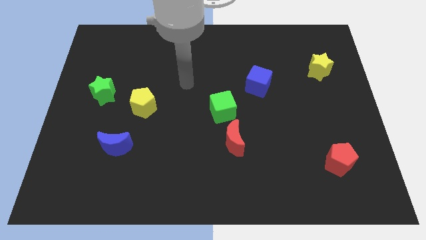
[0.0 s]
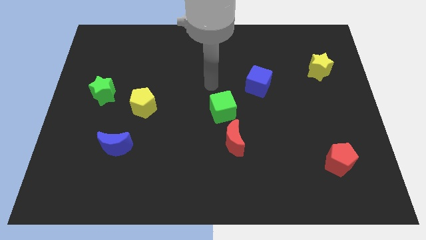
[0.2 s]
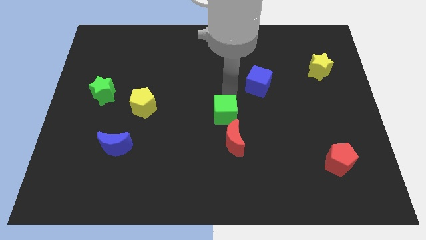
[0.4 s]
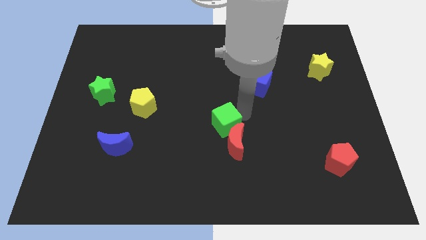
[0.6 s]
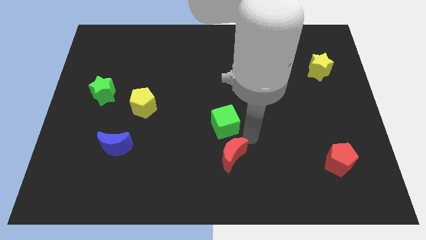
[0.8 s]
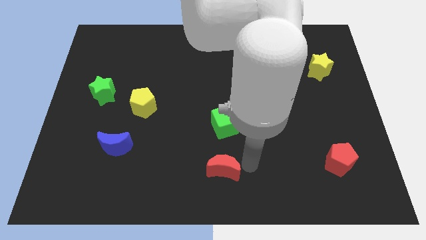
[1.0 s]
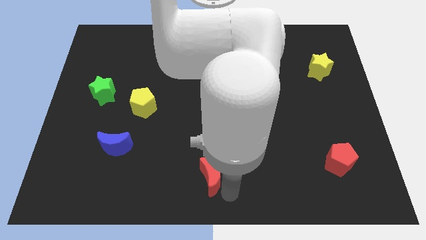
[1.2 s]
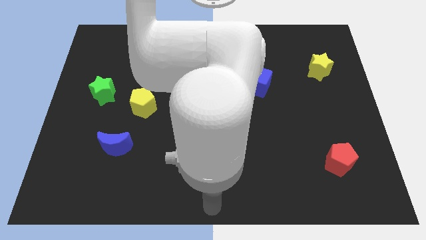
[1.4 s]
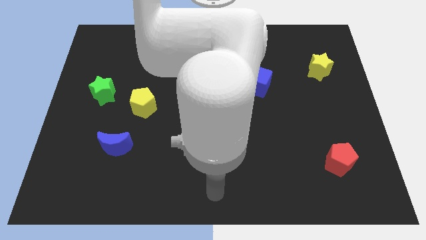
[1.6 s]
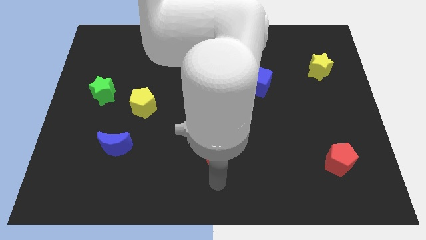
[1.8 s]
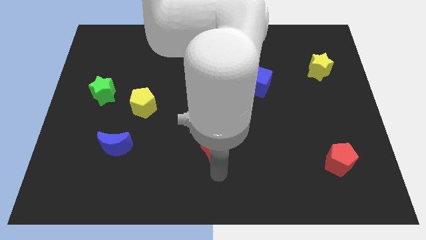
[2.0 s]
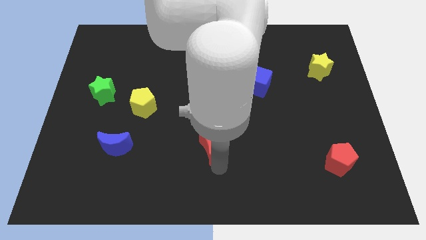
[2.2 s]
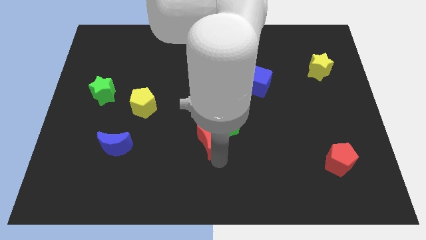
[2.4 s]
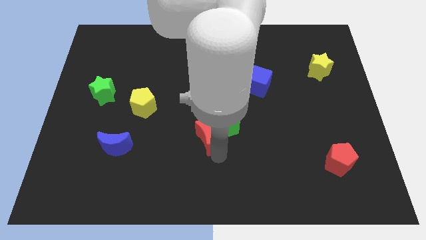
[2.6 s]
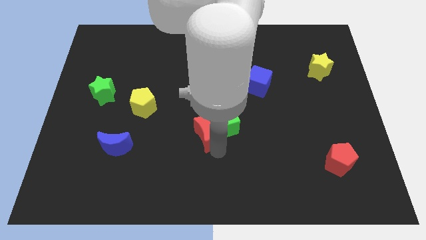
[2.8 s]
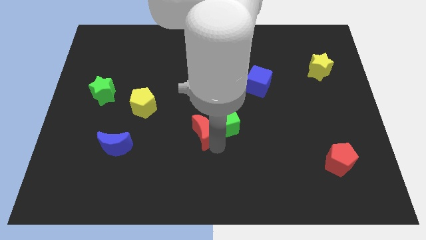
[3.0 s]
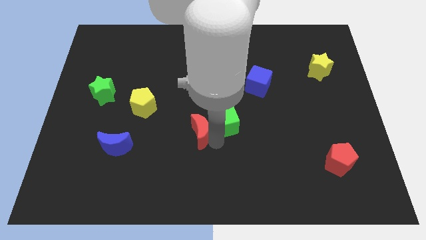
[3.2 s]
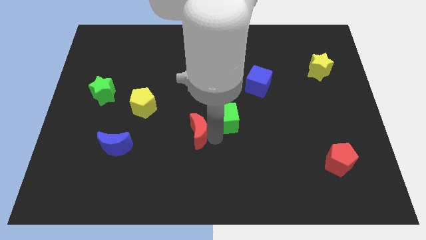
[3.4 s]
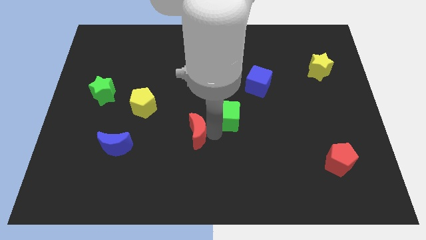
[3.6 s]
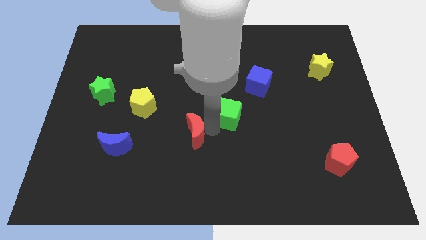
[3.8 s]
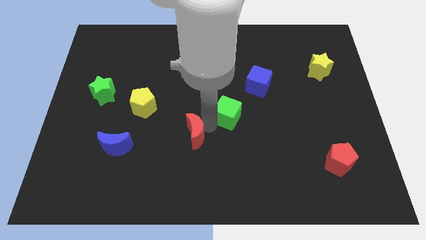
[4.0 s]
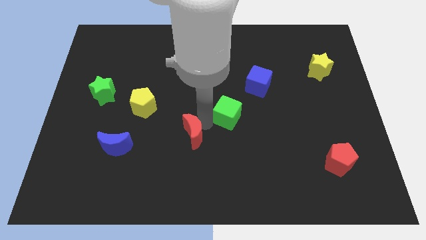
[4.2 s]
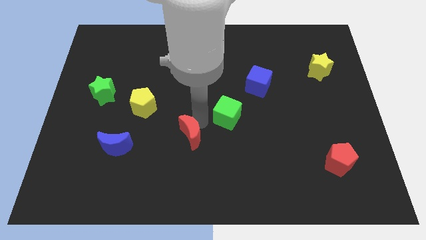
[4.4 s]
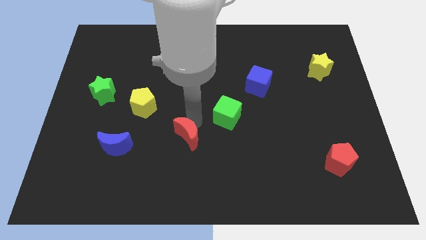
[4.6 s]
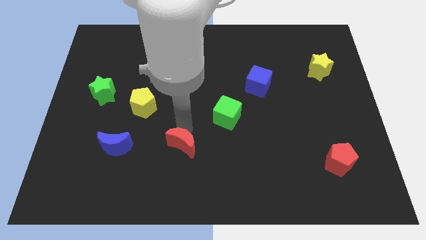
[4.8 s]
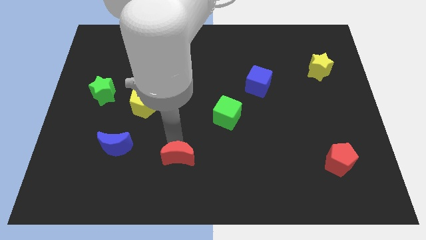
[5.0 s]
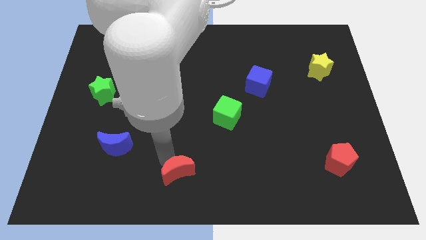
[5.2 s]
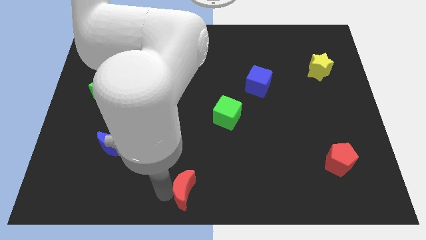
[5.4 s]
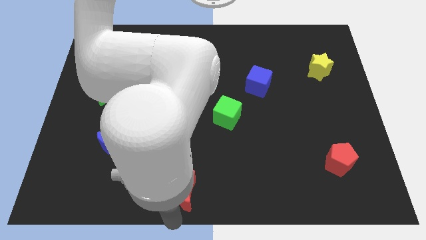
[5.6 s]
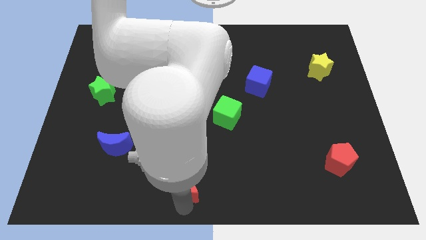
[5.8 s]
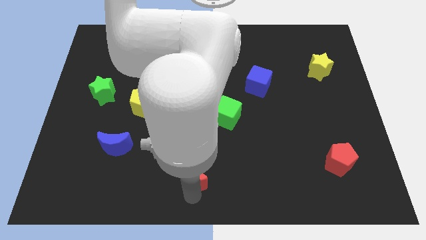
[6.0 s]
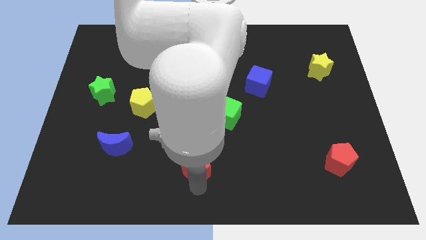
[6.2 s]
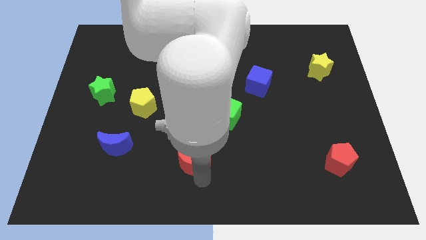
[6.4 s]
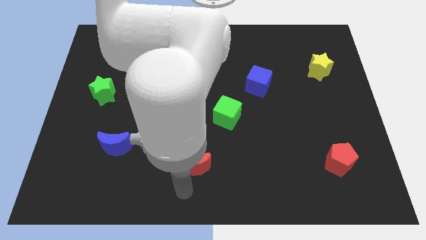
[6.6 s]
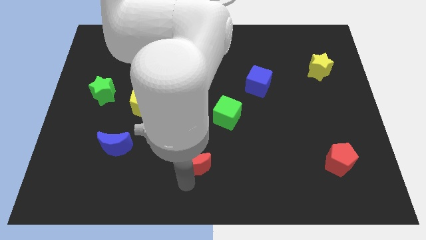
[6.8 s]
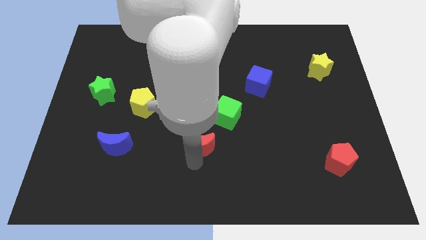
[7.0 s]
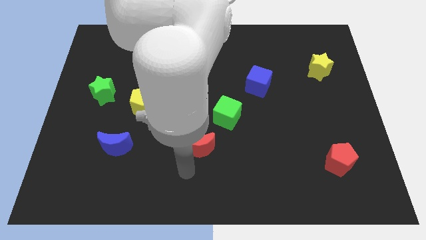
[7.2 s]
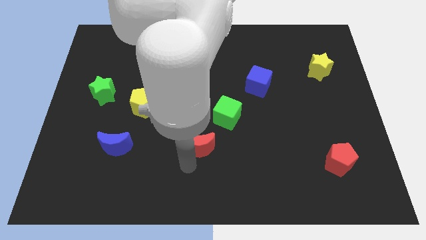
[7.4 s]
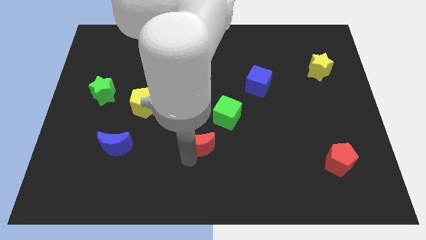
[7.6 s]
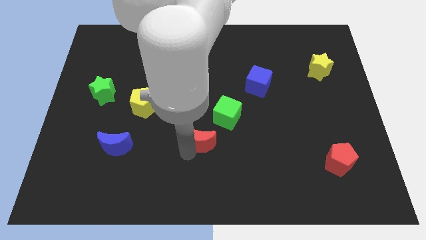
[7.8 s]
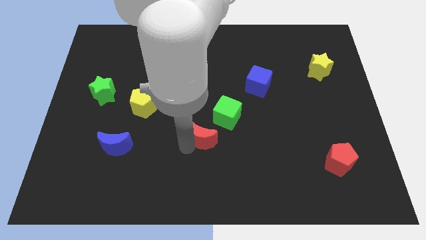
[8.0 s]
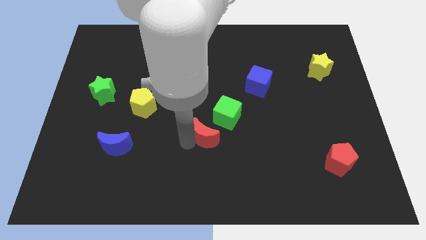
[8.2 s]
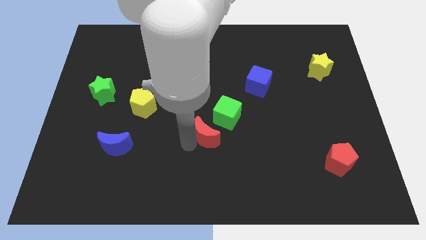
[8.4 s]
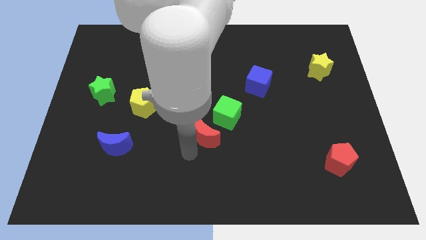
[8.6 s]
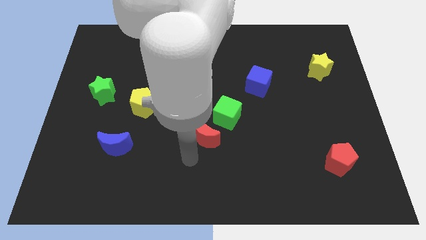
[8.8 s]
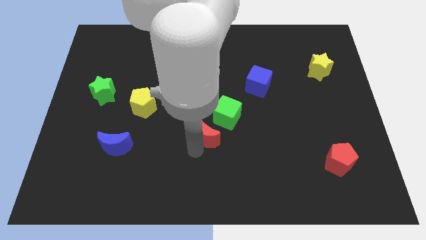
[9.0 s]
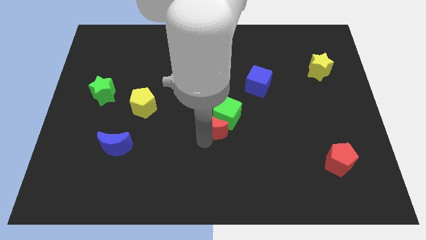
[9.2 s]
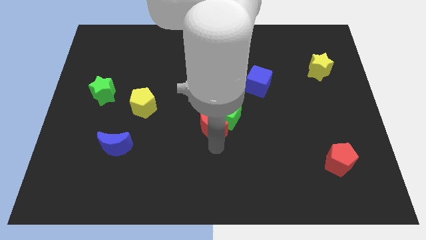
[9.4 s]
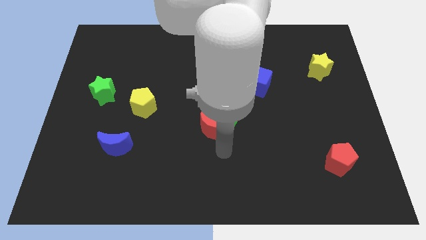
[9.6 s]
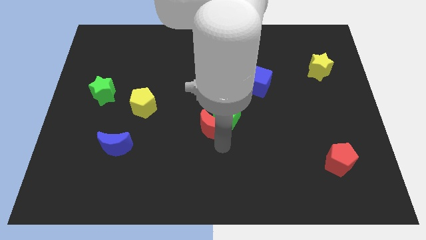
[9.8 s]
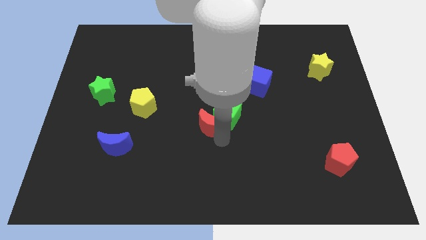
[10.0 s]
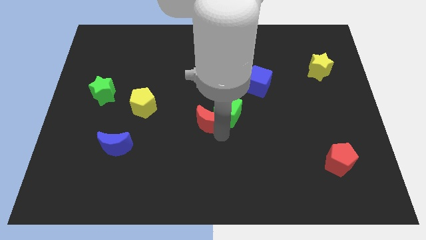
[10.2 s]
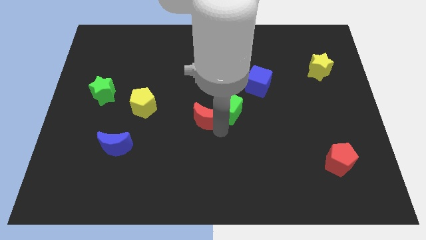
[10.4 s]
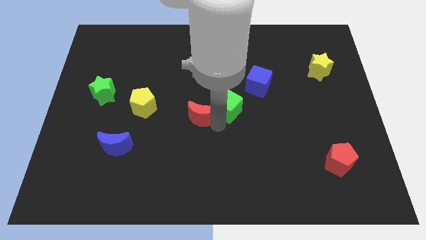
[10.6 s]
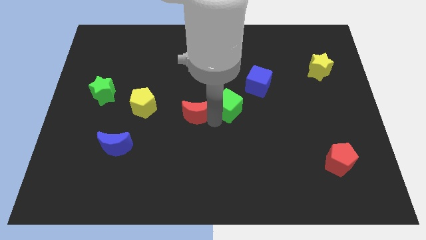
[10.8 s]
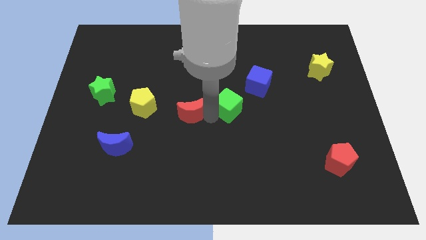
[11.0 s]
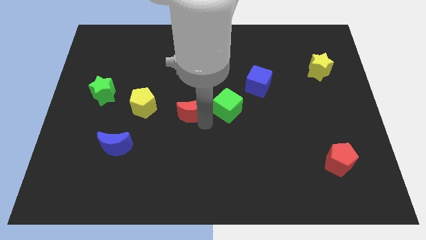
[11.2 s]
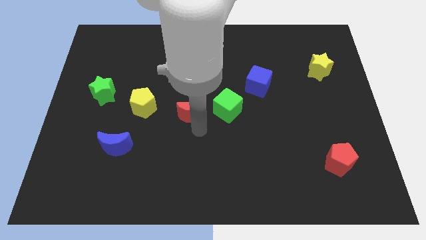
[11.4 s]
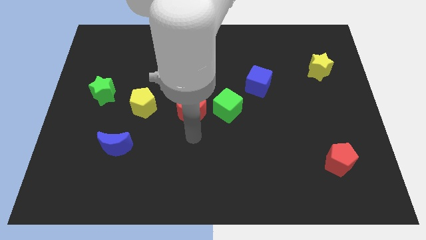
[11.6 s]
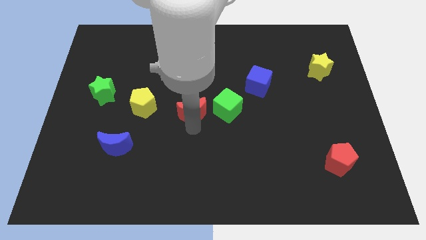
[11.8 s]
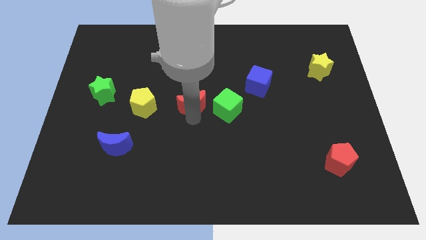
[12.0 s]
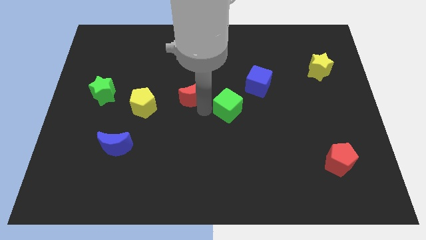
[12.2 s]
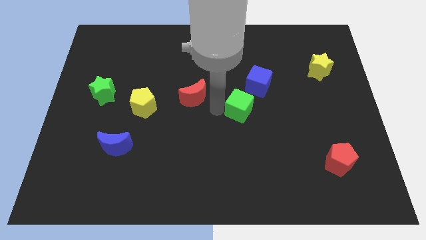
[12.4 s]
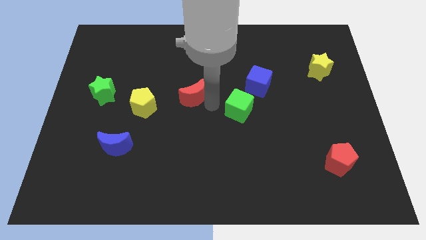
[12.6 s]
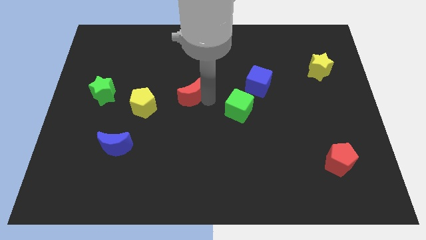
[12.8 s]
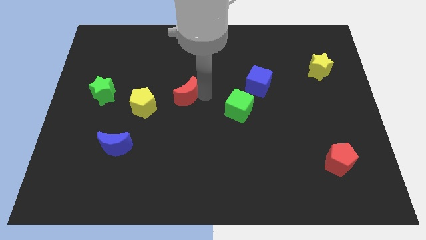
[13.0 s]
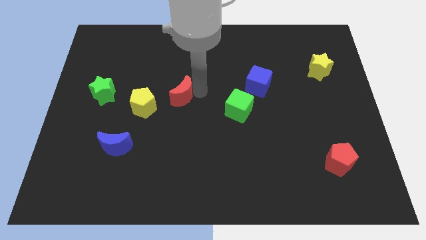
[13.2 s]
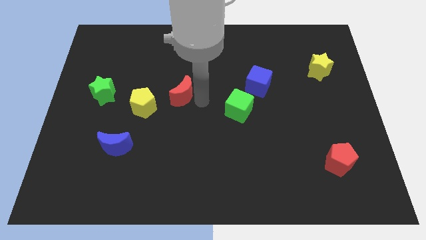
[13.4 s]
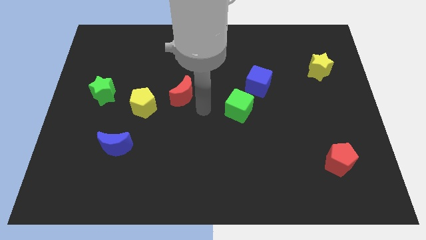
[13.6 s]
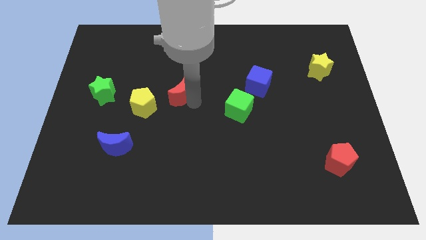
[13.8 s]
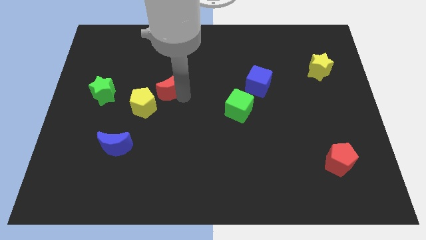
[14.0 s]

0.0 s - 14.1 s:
move the red moon upwards and to the left

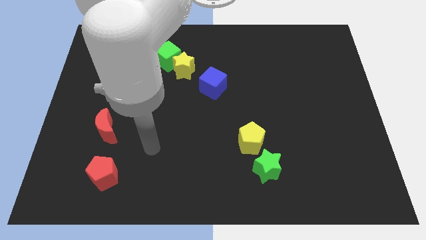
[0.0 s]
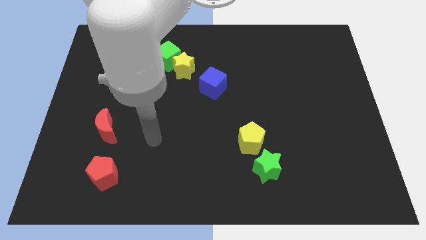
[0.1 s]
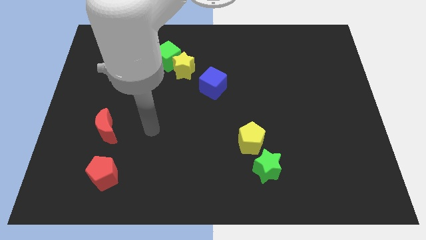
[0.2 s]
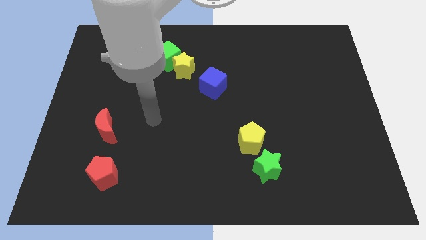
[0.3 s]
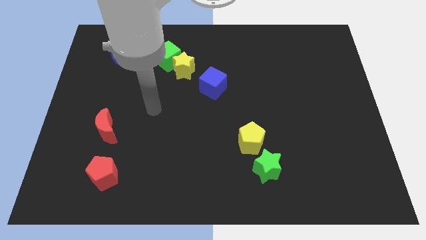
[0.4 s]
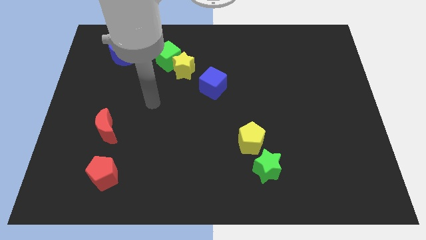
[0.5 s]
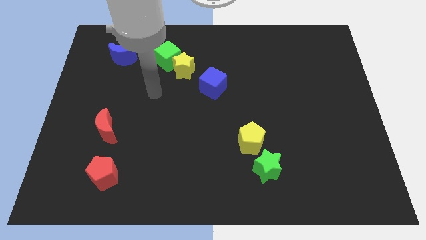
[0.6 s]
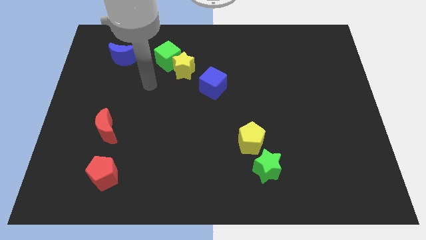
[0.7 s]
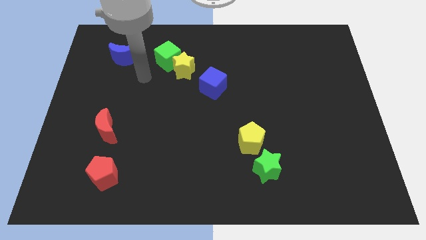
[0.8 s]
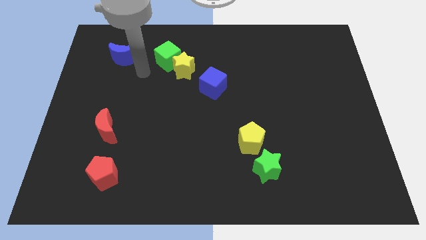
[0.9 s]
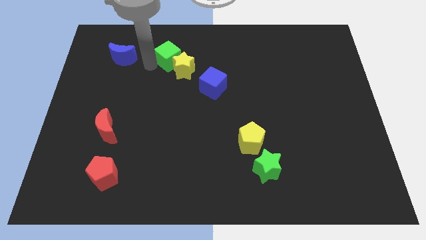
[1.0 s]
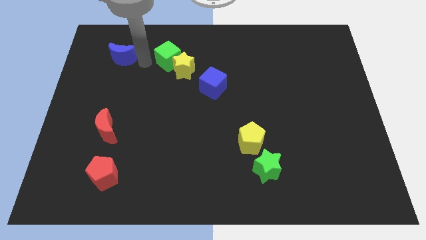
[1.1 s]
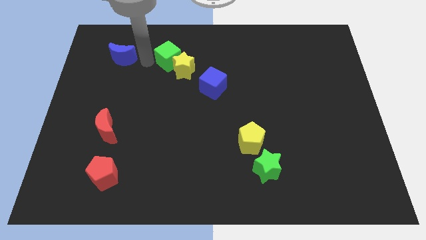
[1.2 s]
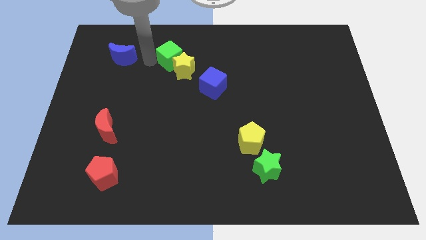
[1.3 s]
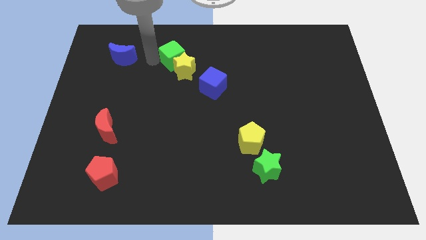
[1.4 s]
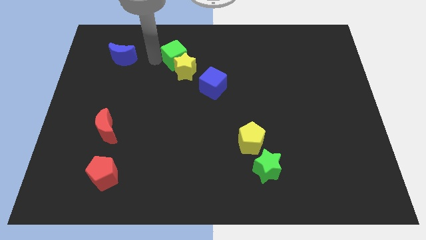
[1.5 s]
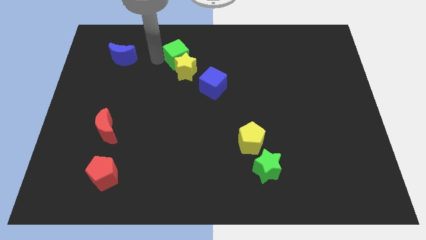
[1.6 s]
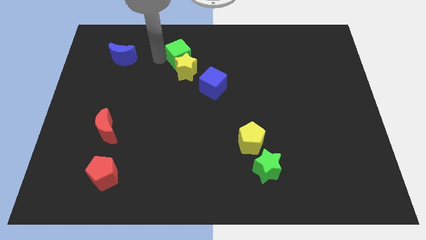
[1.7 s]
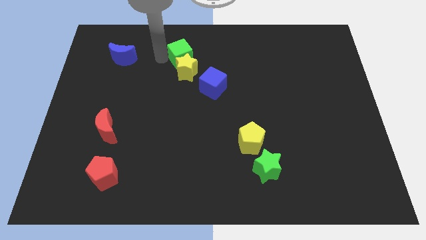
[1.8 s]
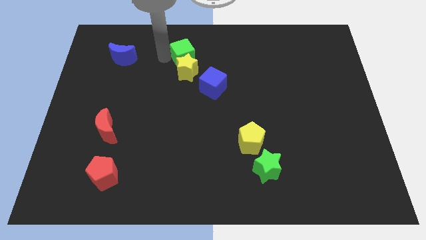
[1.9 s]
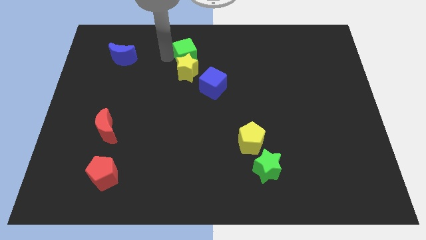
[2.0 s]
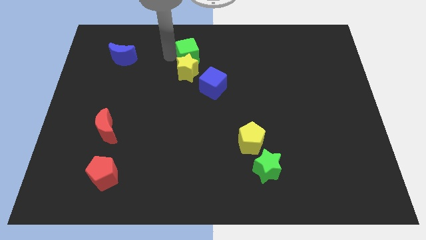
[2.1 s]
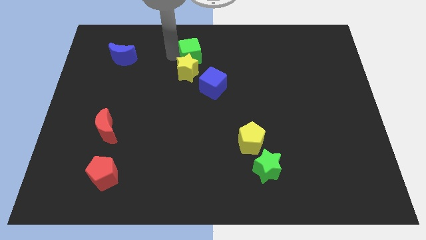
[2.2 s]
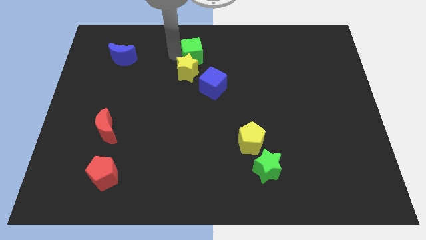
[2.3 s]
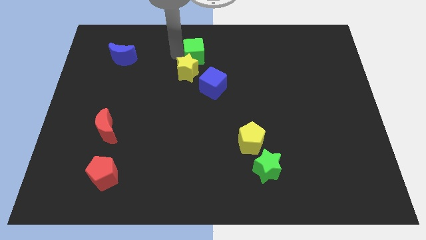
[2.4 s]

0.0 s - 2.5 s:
move the green cube slightly right
